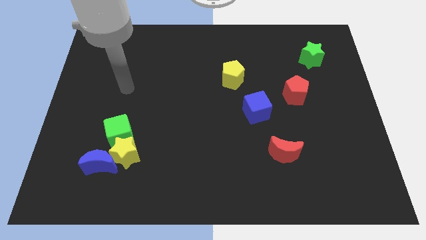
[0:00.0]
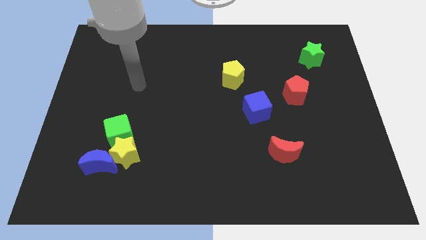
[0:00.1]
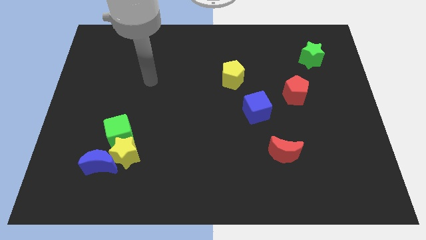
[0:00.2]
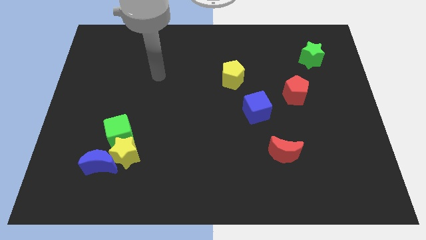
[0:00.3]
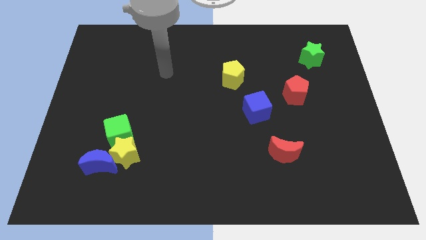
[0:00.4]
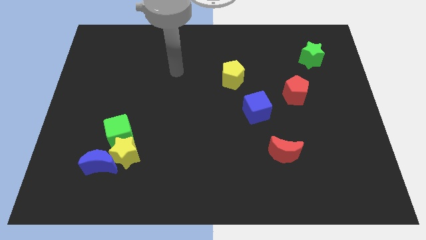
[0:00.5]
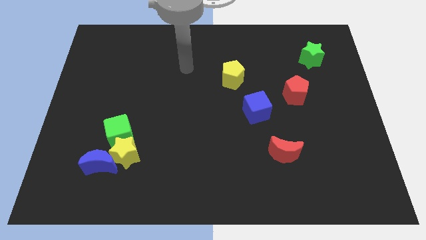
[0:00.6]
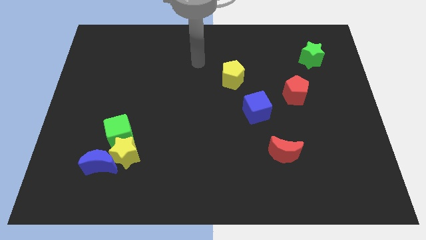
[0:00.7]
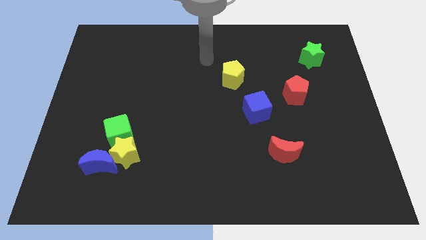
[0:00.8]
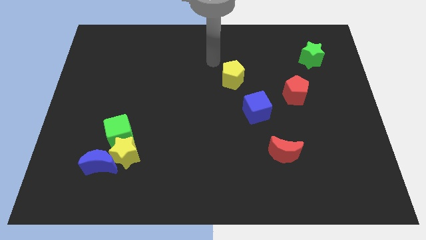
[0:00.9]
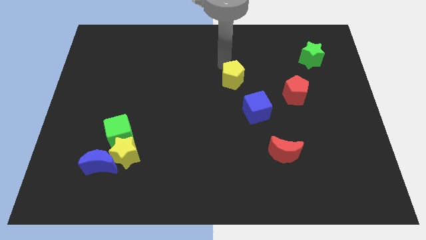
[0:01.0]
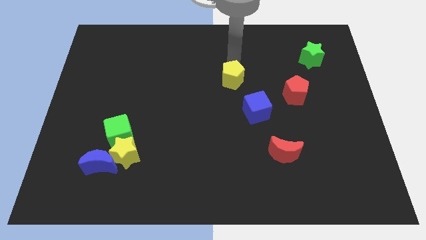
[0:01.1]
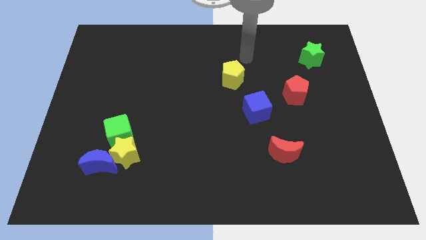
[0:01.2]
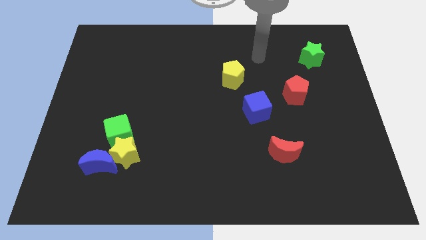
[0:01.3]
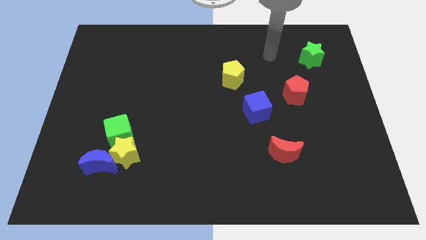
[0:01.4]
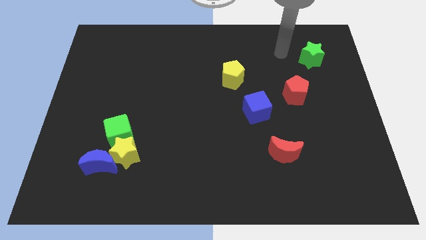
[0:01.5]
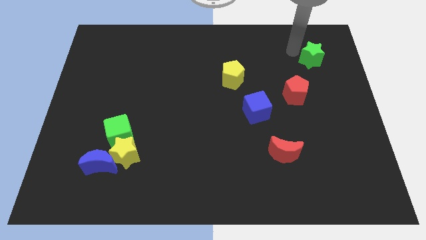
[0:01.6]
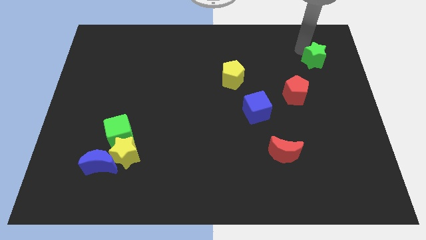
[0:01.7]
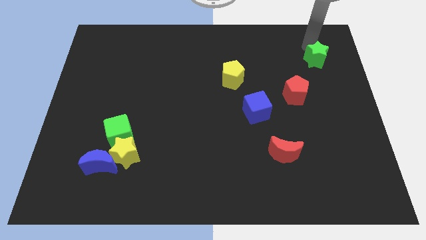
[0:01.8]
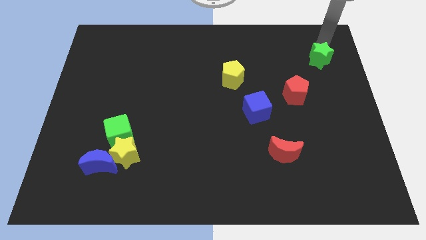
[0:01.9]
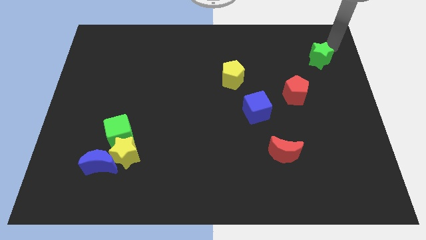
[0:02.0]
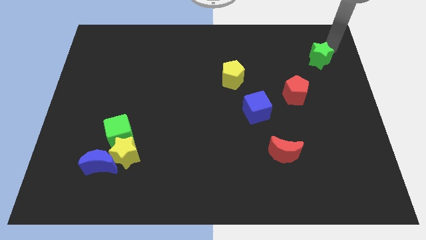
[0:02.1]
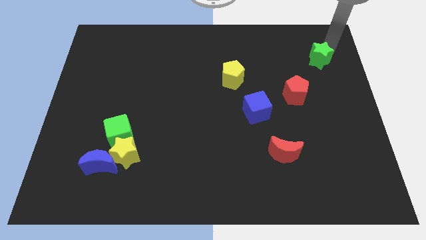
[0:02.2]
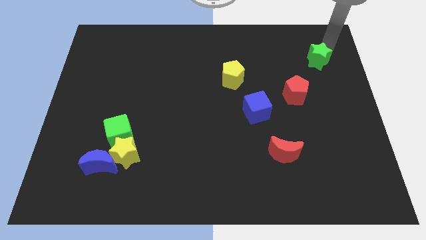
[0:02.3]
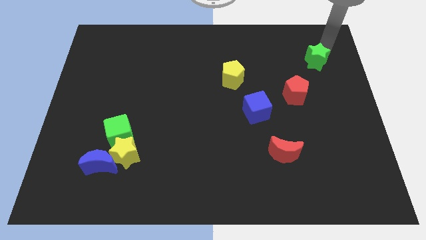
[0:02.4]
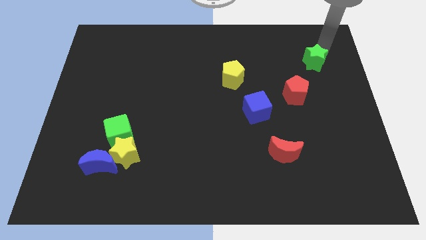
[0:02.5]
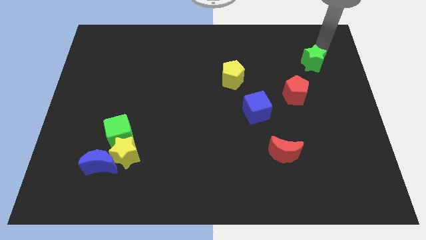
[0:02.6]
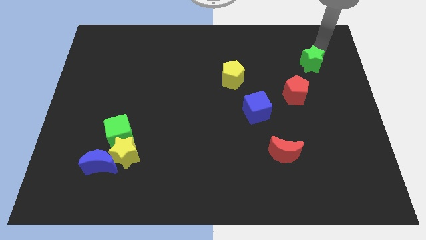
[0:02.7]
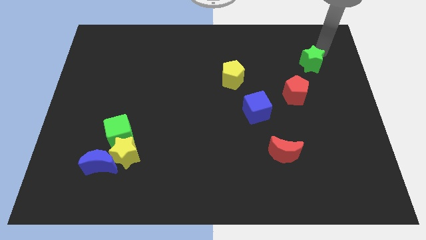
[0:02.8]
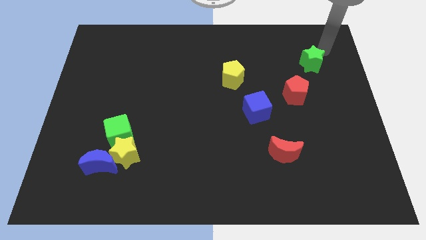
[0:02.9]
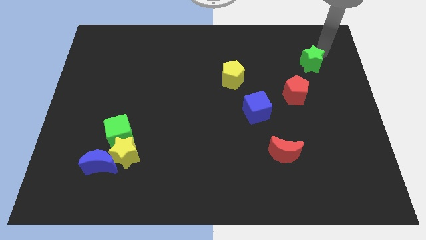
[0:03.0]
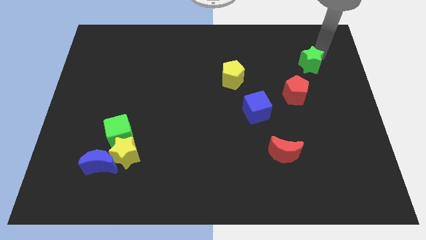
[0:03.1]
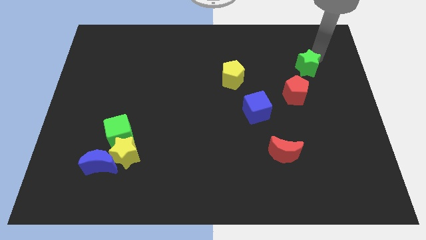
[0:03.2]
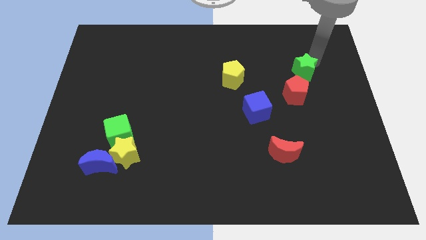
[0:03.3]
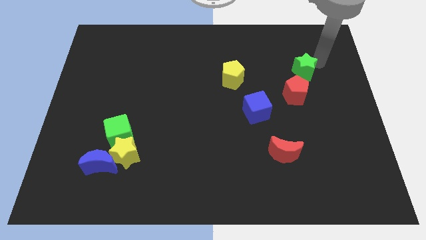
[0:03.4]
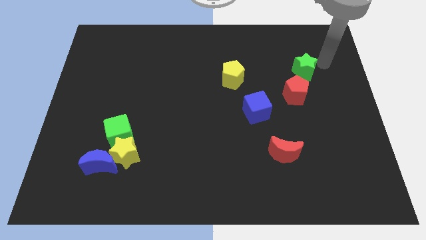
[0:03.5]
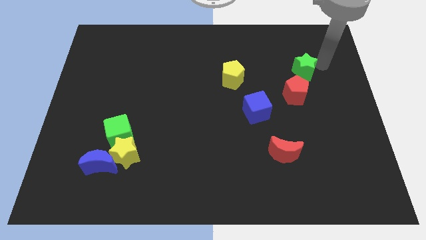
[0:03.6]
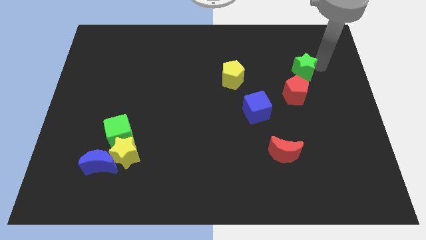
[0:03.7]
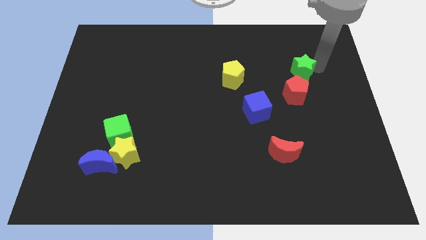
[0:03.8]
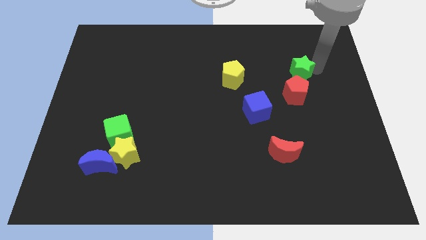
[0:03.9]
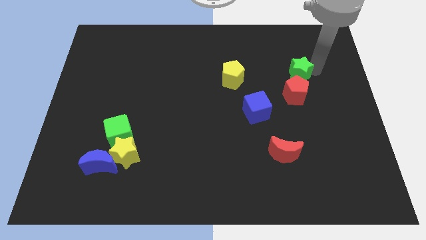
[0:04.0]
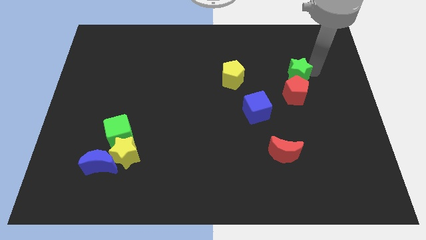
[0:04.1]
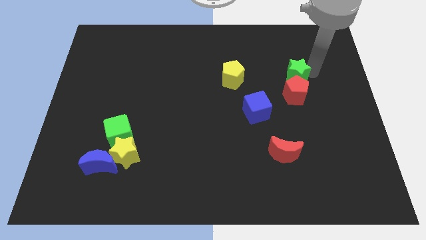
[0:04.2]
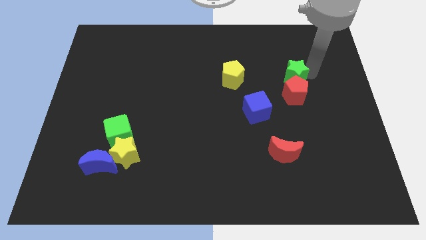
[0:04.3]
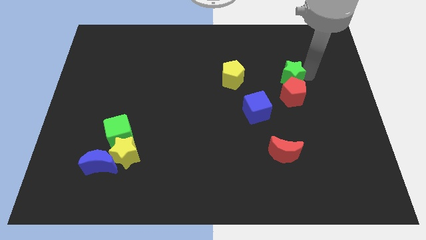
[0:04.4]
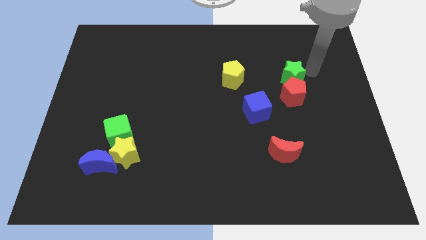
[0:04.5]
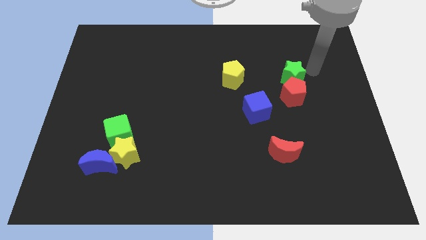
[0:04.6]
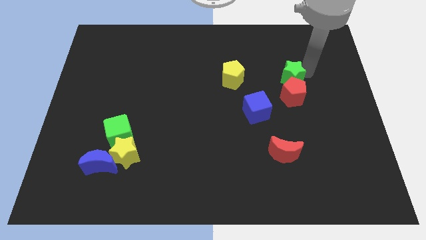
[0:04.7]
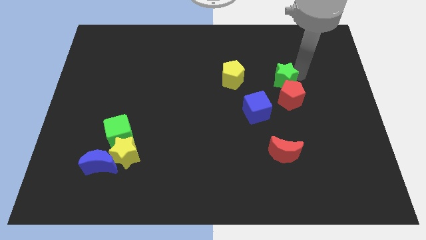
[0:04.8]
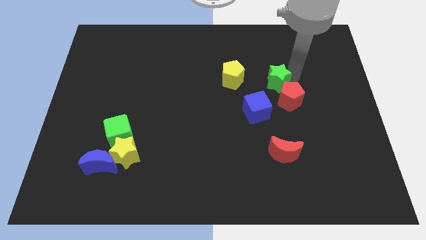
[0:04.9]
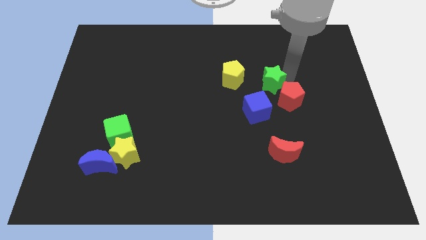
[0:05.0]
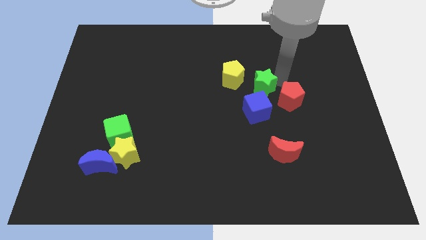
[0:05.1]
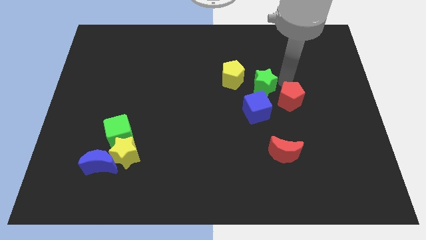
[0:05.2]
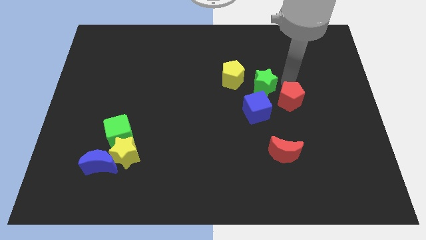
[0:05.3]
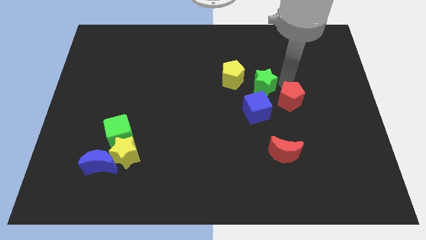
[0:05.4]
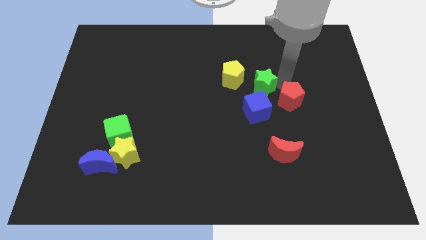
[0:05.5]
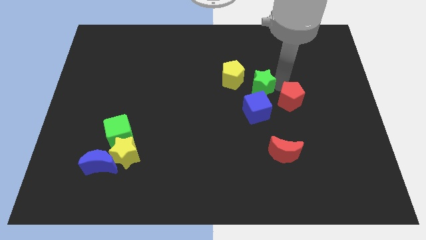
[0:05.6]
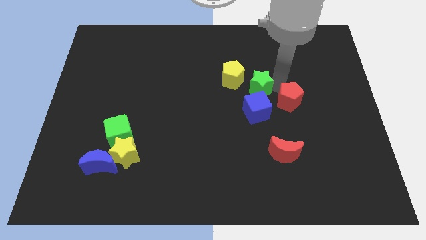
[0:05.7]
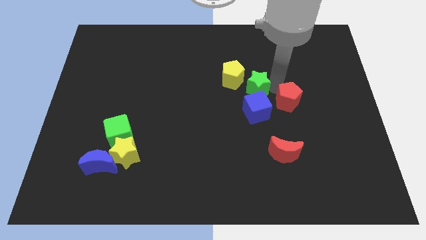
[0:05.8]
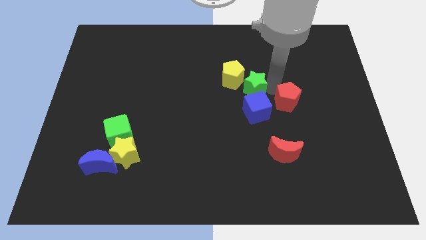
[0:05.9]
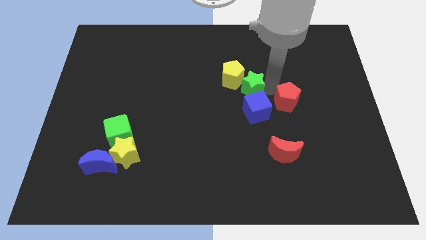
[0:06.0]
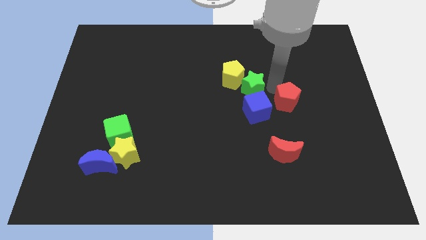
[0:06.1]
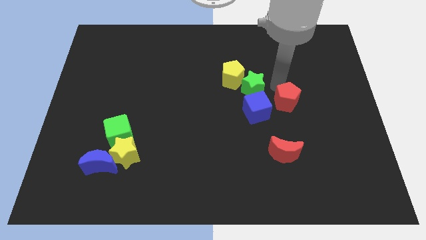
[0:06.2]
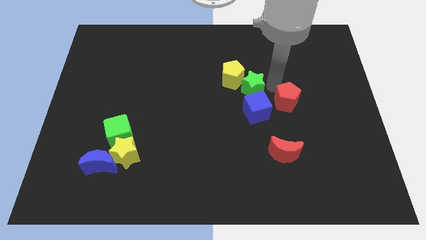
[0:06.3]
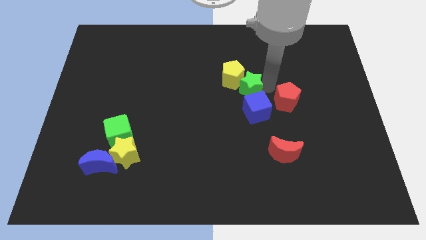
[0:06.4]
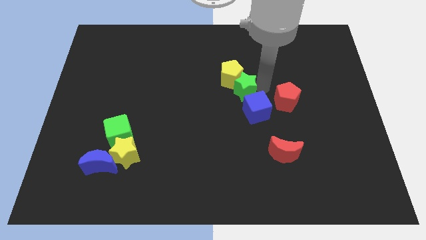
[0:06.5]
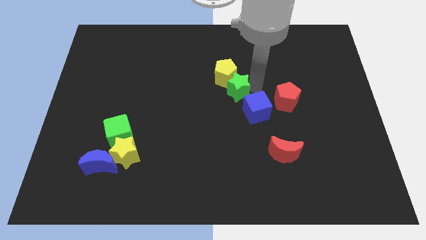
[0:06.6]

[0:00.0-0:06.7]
slide the green star downwards and left diagonally

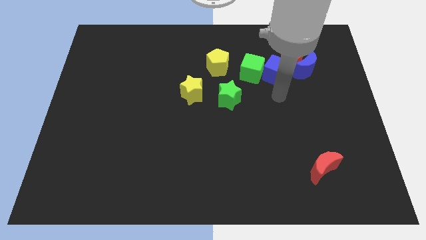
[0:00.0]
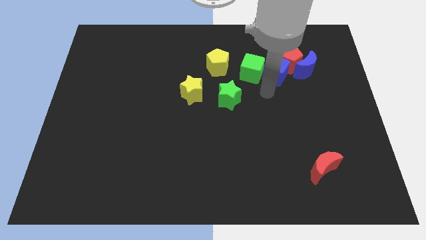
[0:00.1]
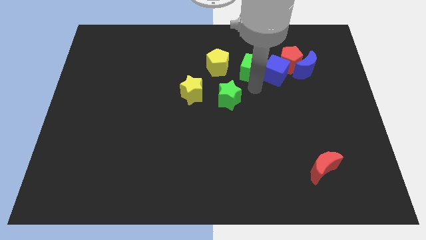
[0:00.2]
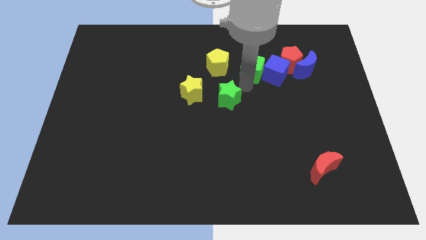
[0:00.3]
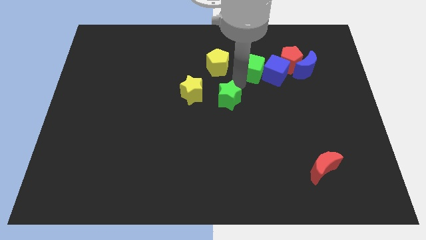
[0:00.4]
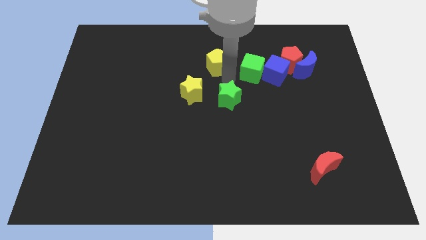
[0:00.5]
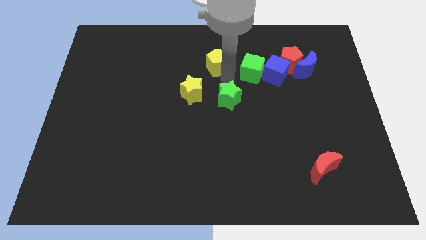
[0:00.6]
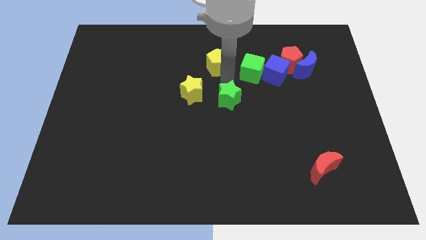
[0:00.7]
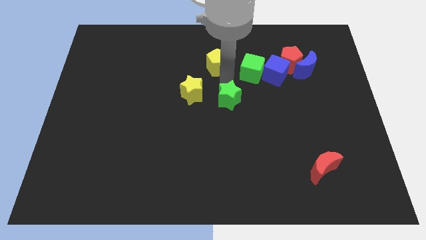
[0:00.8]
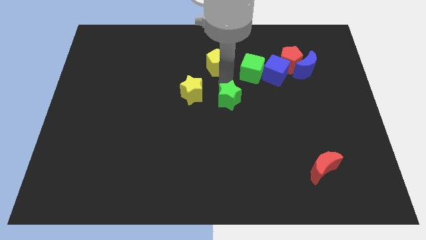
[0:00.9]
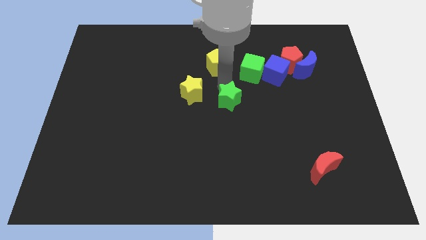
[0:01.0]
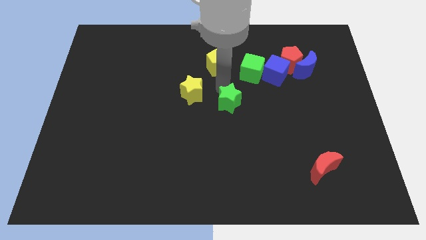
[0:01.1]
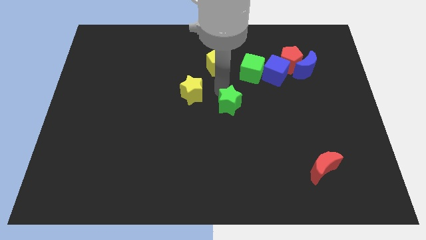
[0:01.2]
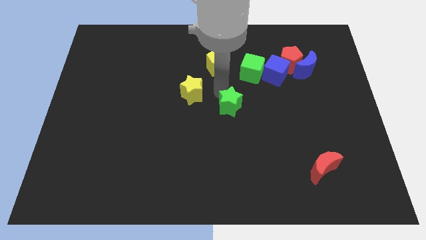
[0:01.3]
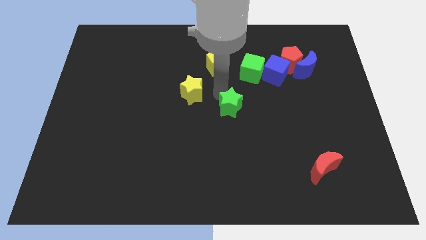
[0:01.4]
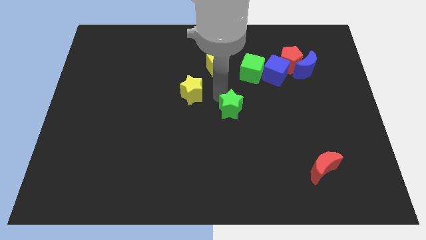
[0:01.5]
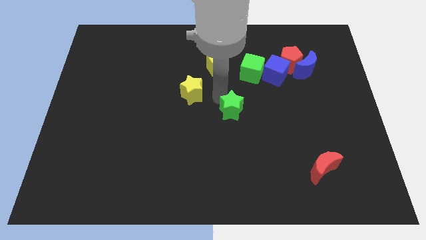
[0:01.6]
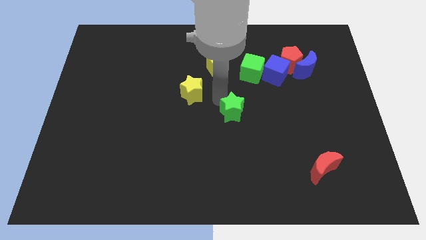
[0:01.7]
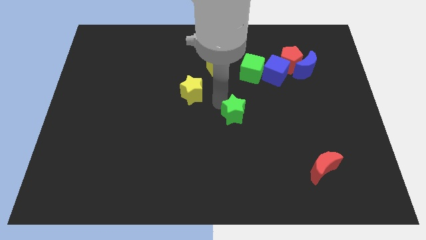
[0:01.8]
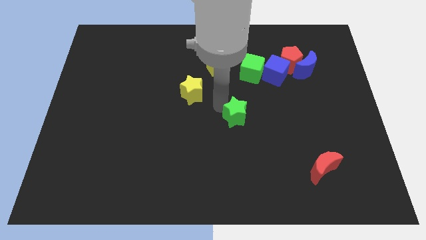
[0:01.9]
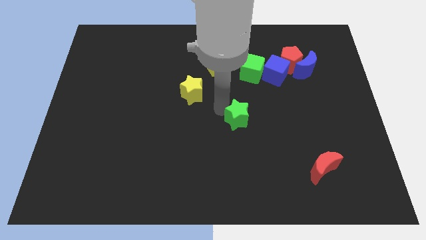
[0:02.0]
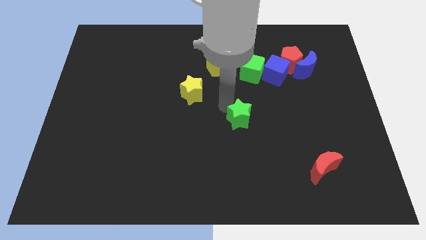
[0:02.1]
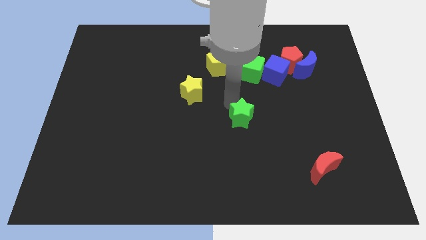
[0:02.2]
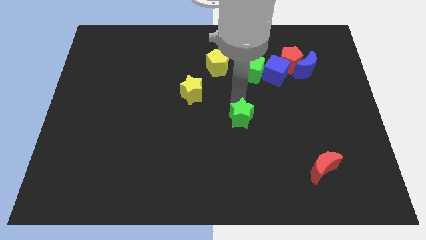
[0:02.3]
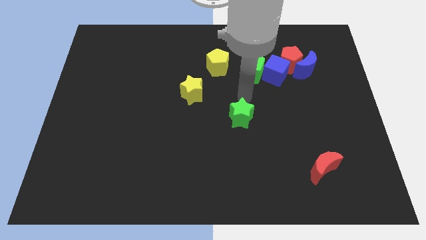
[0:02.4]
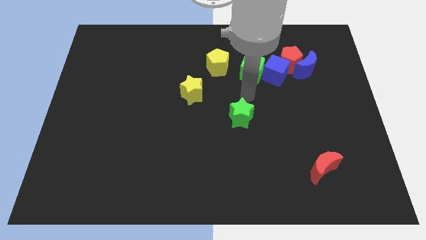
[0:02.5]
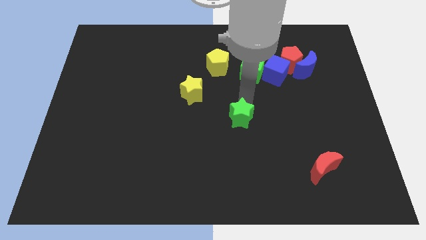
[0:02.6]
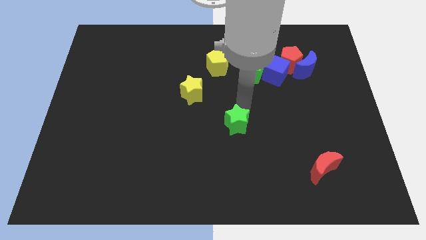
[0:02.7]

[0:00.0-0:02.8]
slightly move the green star down
